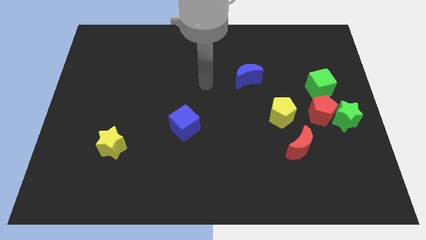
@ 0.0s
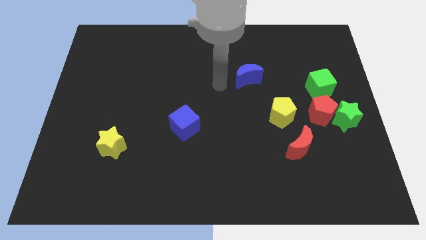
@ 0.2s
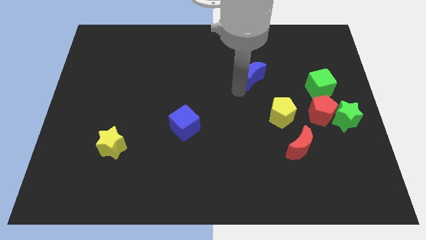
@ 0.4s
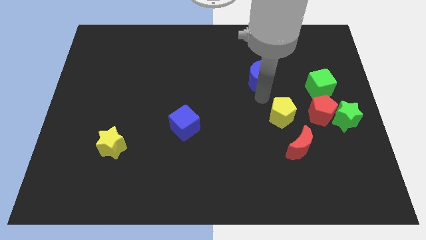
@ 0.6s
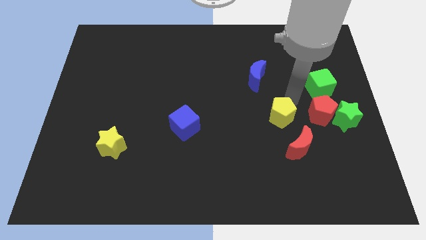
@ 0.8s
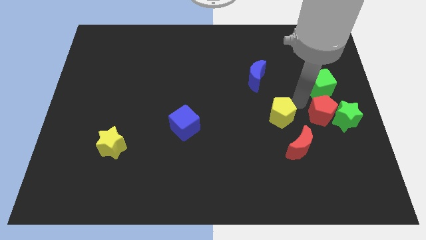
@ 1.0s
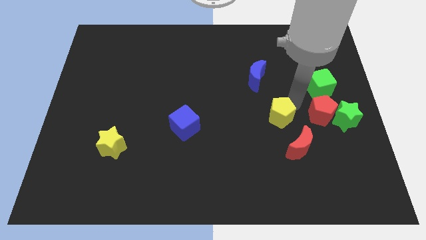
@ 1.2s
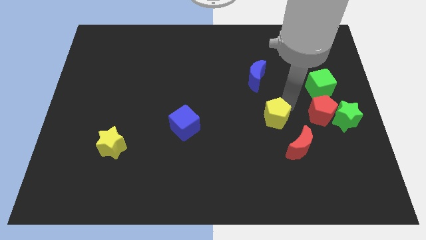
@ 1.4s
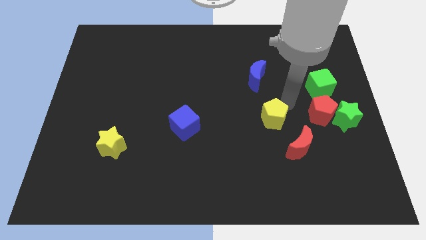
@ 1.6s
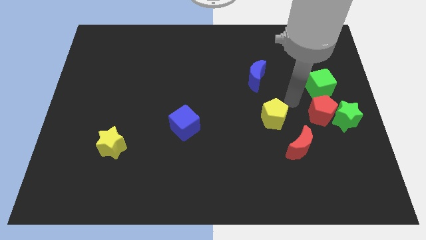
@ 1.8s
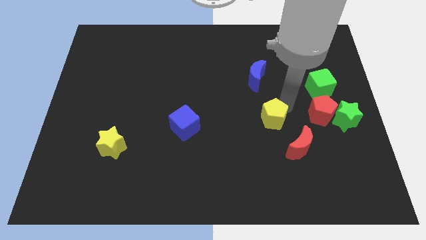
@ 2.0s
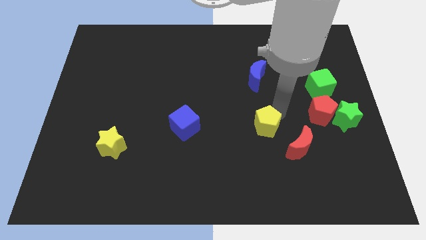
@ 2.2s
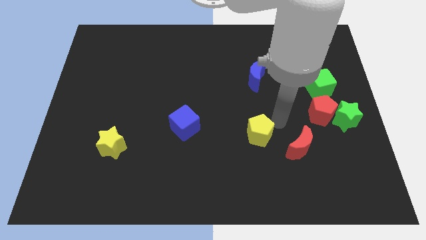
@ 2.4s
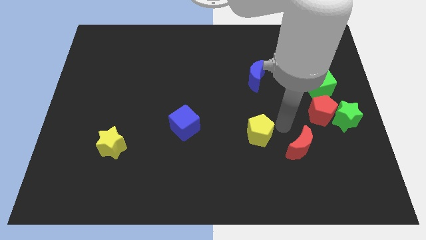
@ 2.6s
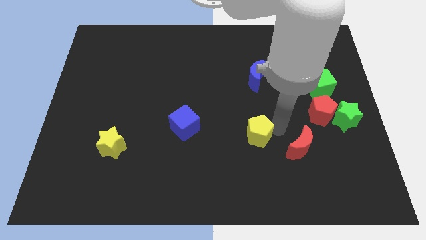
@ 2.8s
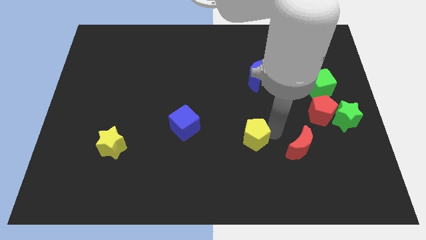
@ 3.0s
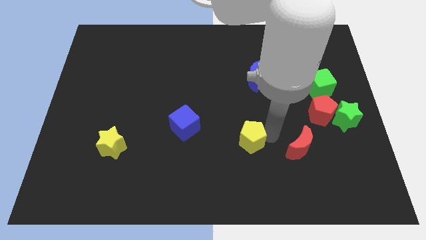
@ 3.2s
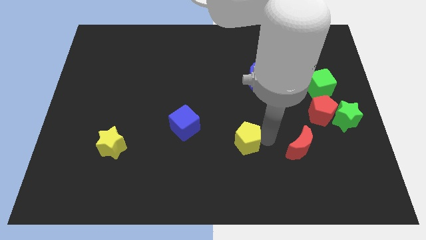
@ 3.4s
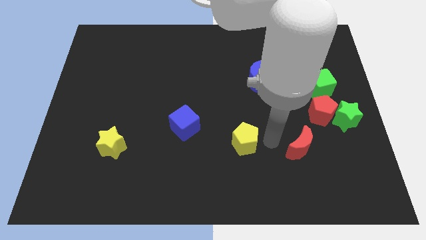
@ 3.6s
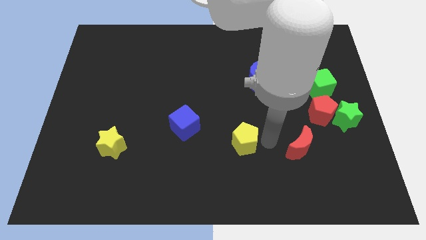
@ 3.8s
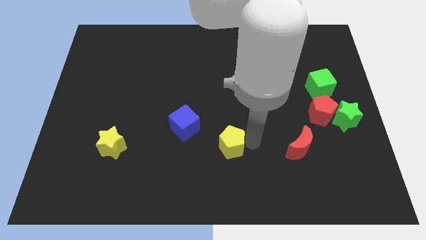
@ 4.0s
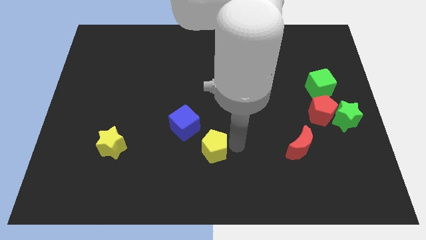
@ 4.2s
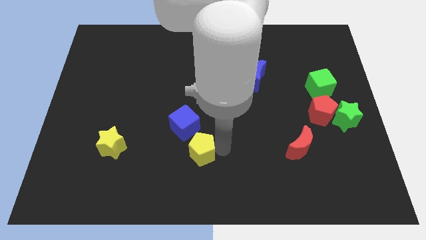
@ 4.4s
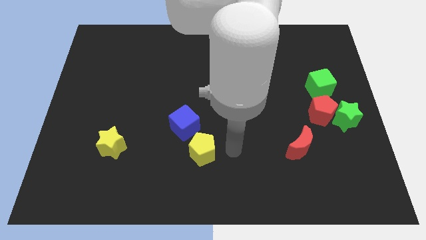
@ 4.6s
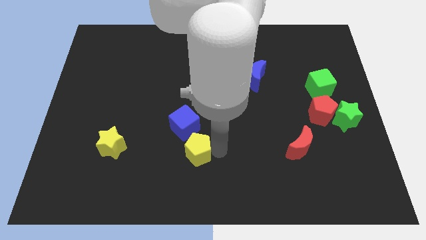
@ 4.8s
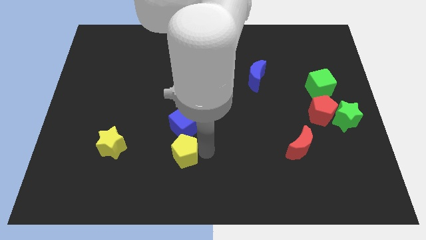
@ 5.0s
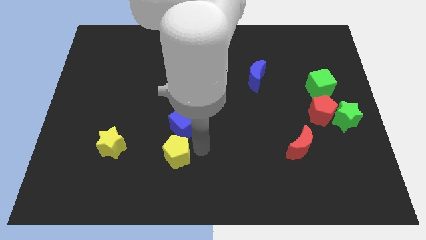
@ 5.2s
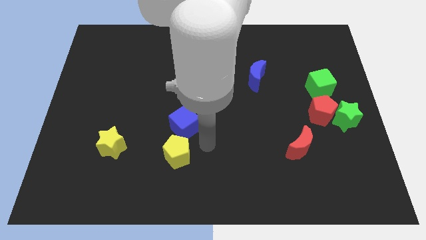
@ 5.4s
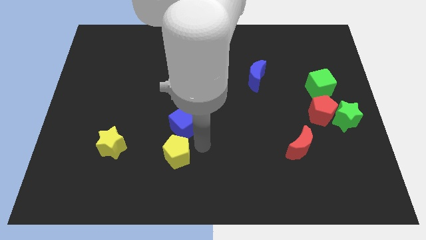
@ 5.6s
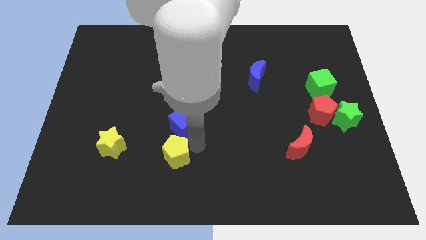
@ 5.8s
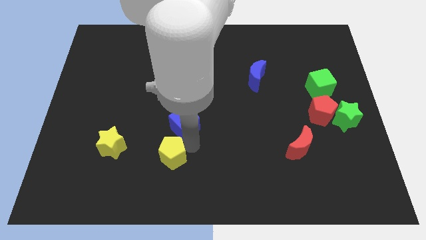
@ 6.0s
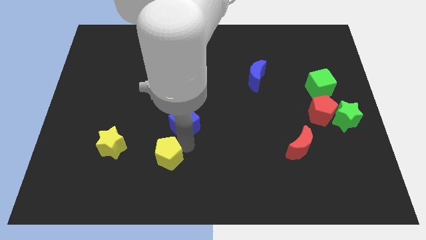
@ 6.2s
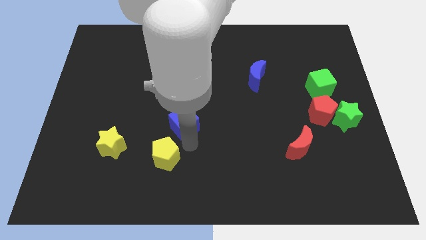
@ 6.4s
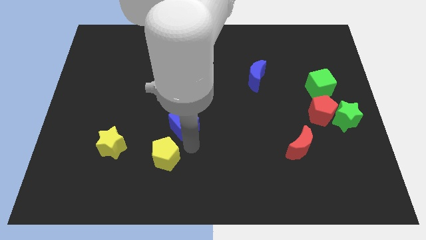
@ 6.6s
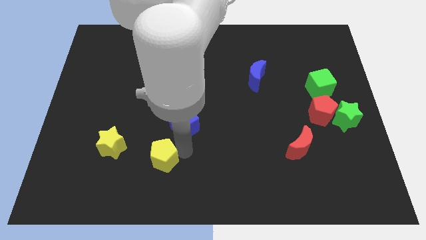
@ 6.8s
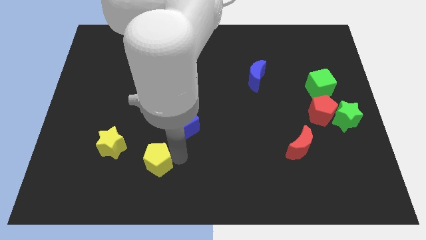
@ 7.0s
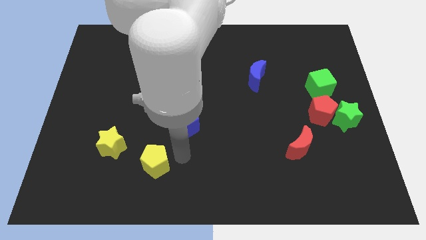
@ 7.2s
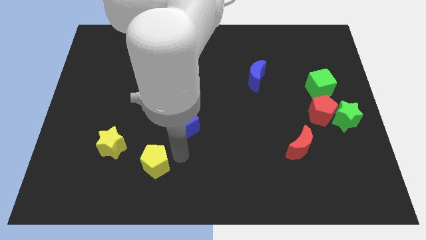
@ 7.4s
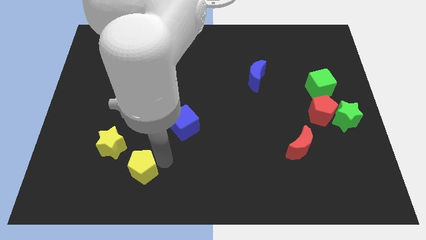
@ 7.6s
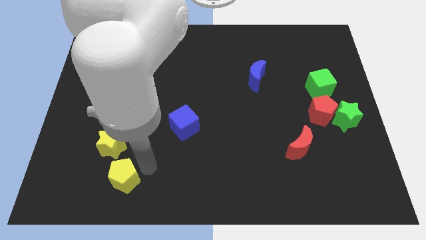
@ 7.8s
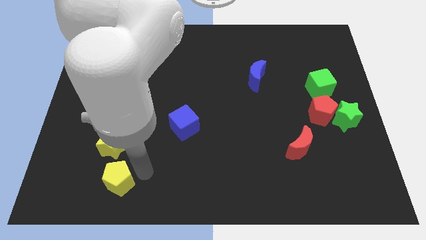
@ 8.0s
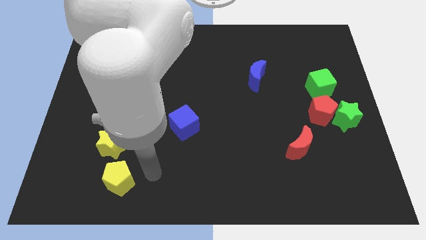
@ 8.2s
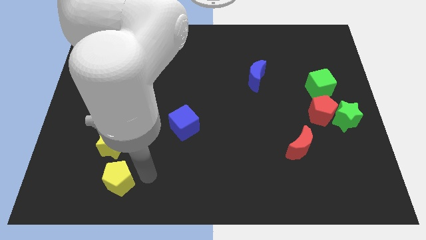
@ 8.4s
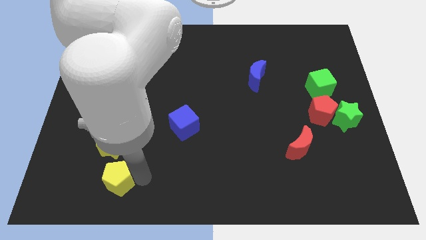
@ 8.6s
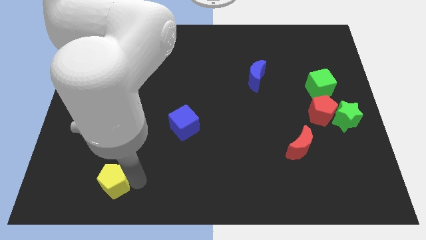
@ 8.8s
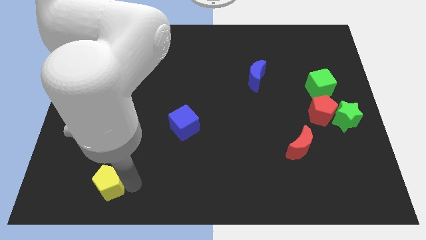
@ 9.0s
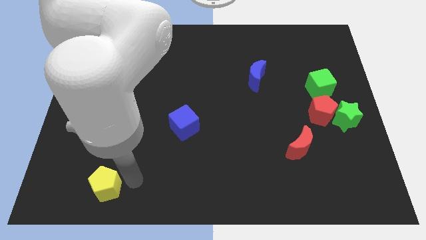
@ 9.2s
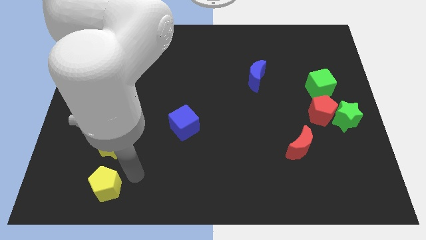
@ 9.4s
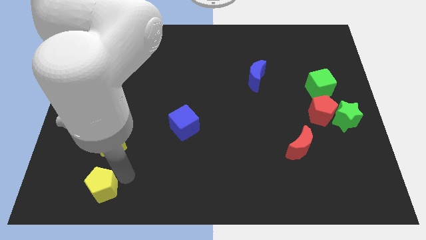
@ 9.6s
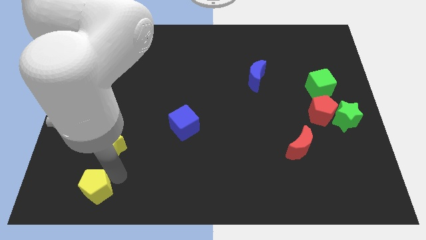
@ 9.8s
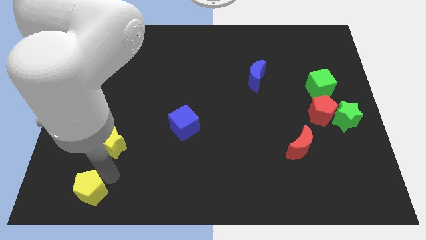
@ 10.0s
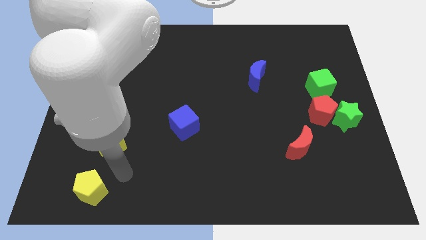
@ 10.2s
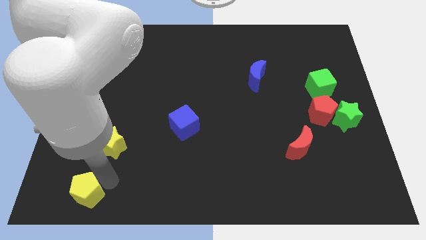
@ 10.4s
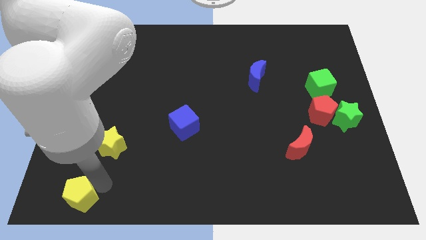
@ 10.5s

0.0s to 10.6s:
move the yellow pentagon to the bottom left of the board

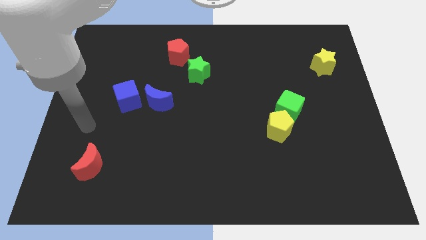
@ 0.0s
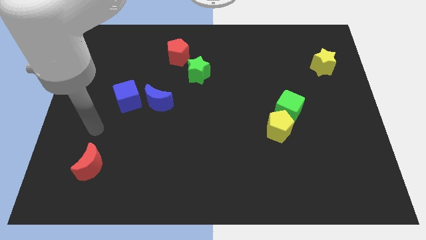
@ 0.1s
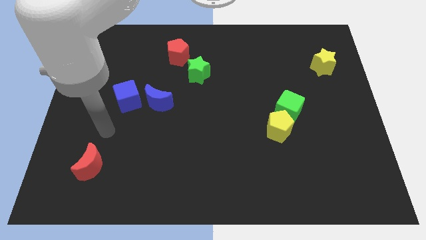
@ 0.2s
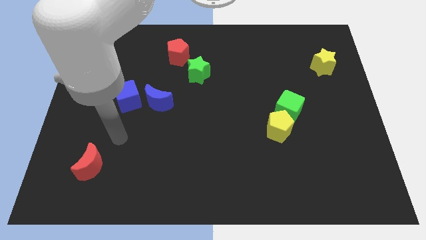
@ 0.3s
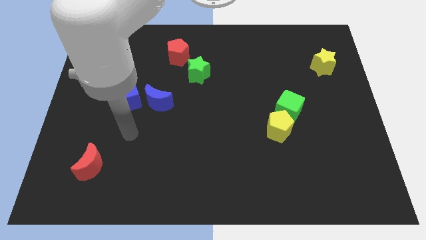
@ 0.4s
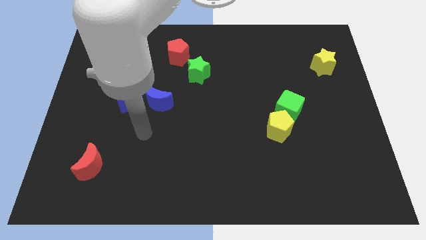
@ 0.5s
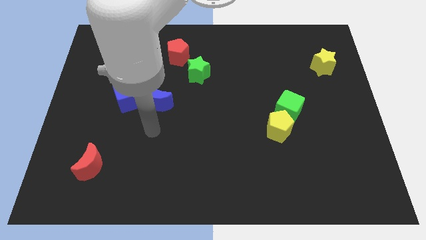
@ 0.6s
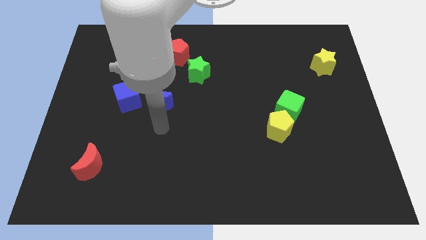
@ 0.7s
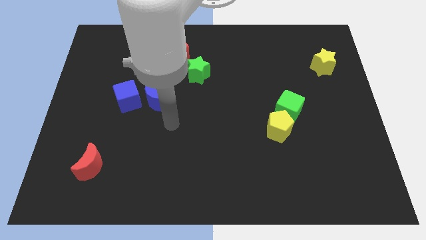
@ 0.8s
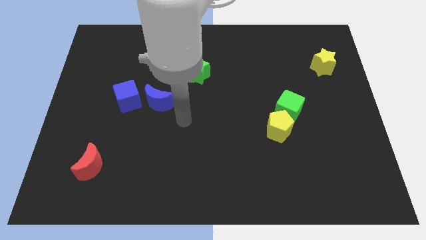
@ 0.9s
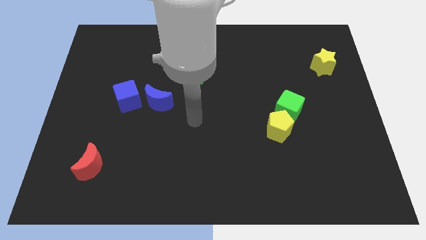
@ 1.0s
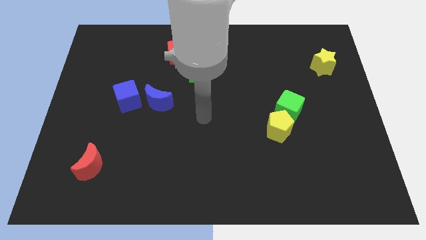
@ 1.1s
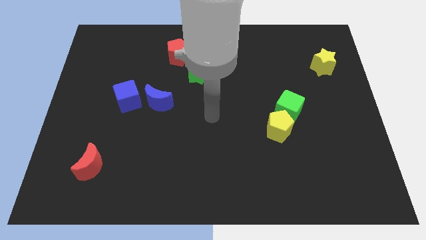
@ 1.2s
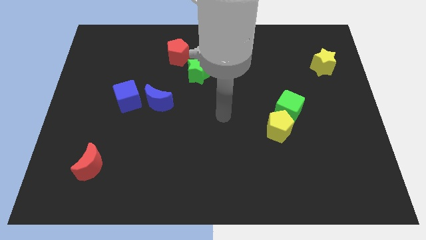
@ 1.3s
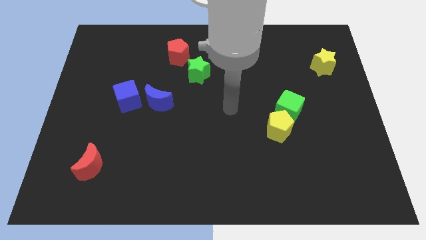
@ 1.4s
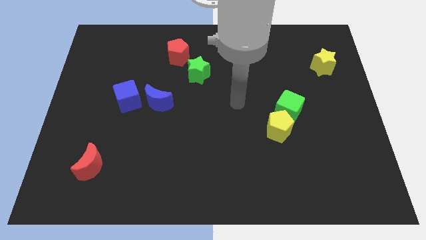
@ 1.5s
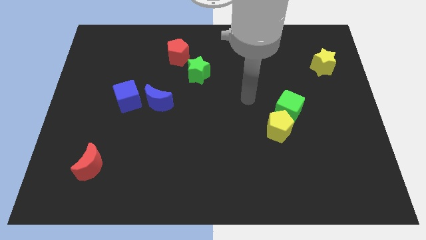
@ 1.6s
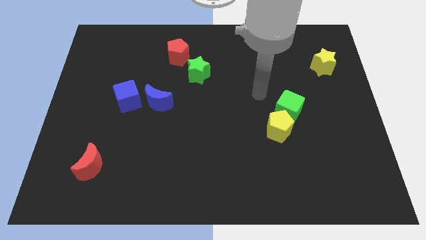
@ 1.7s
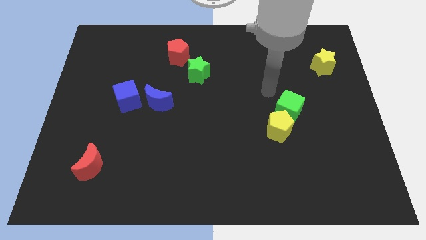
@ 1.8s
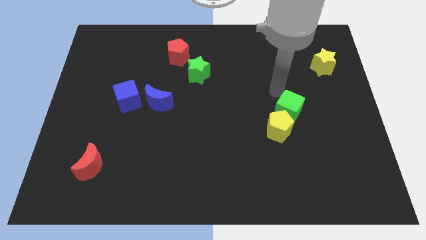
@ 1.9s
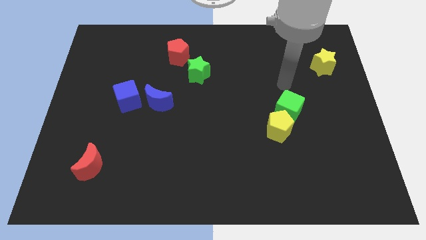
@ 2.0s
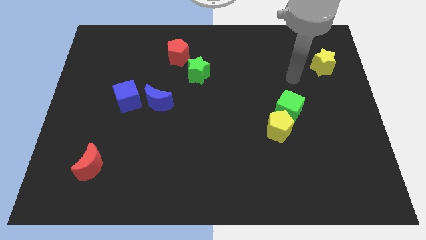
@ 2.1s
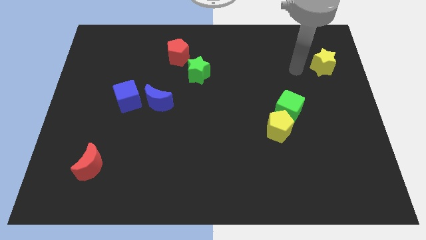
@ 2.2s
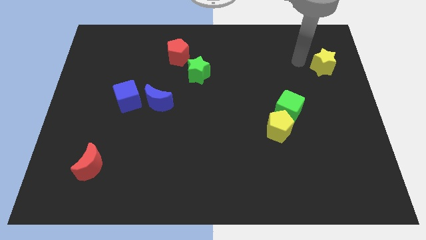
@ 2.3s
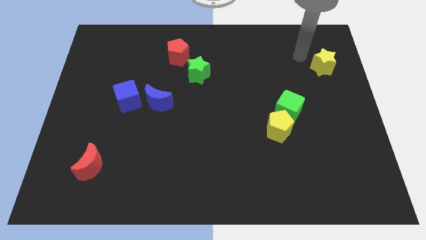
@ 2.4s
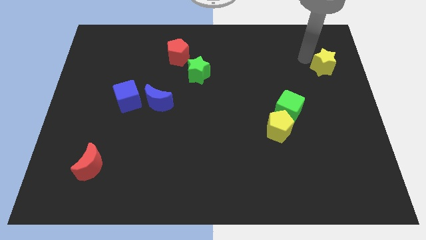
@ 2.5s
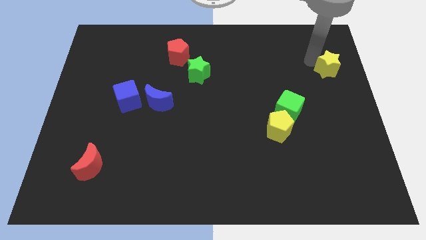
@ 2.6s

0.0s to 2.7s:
move the yellow star to the center right

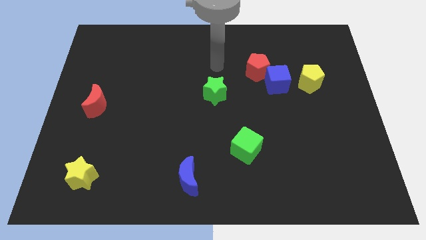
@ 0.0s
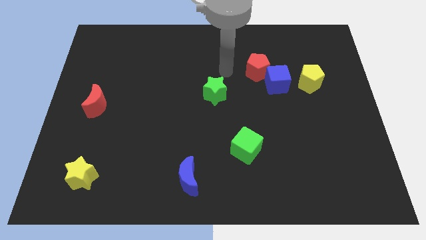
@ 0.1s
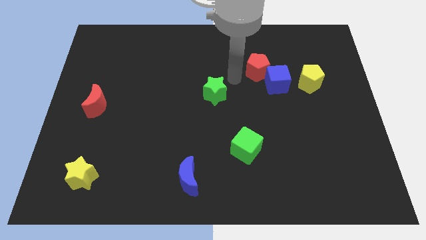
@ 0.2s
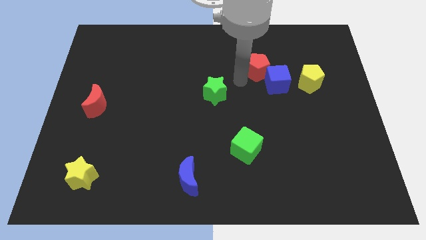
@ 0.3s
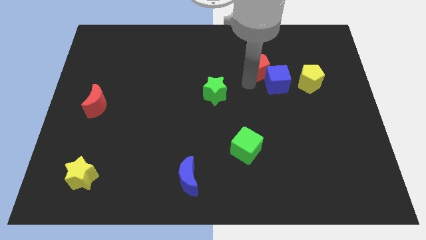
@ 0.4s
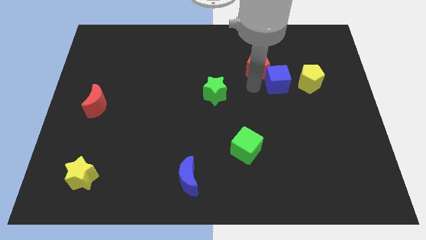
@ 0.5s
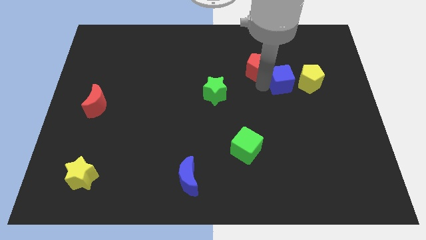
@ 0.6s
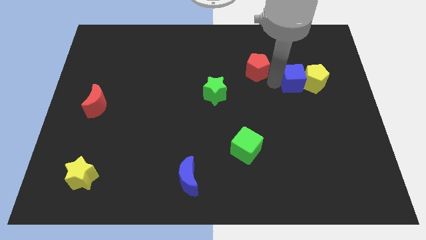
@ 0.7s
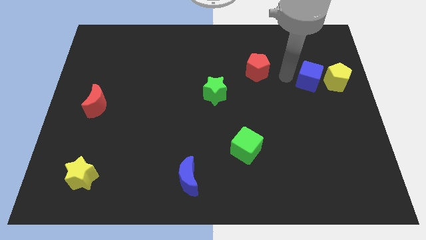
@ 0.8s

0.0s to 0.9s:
move the yellow pentagon to the center right
